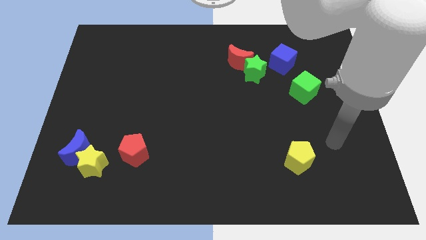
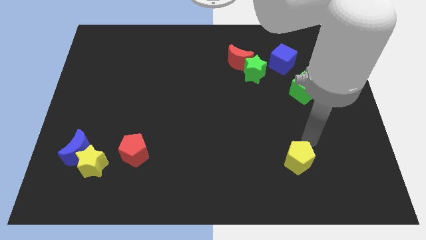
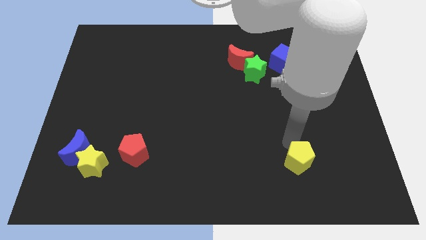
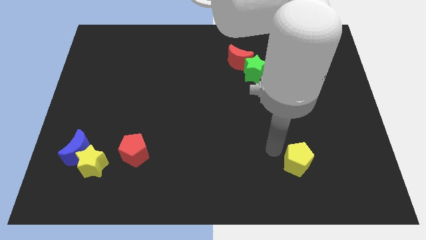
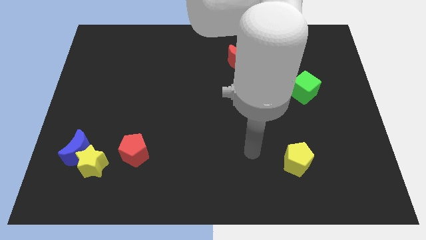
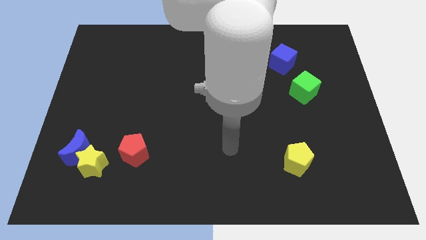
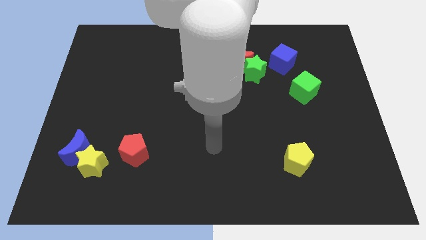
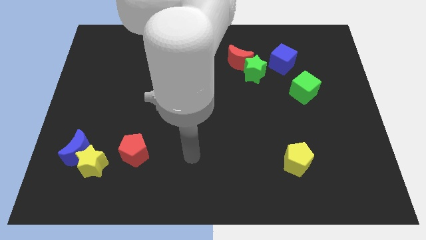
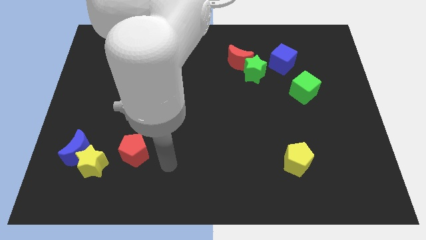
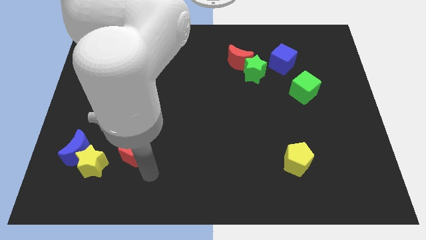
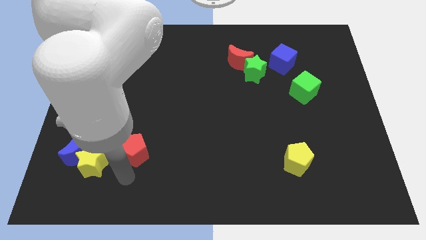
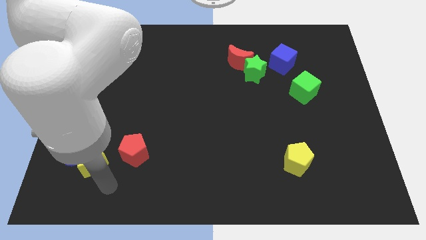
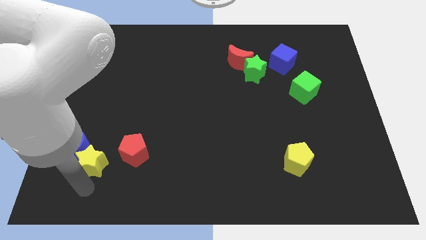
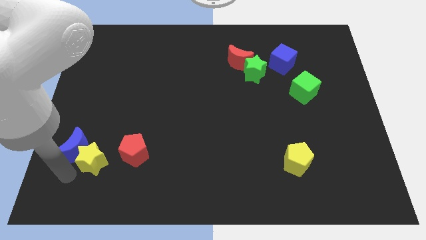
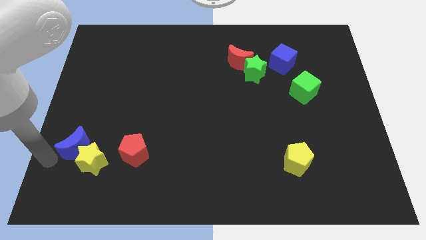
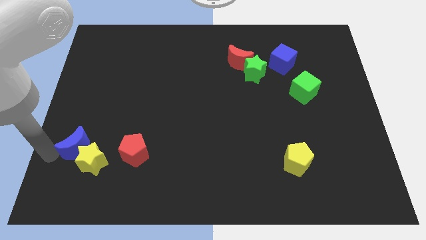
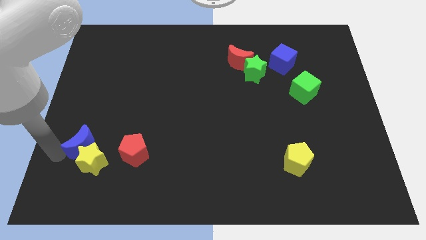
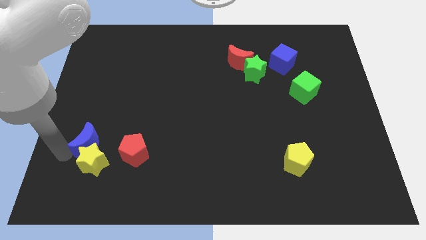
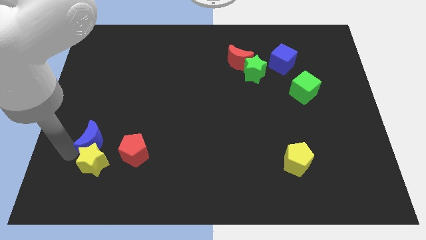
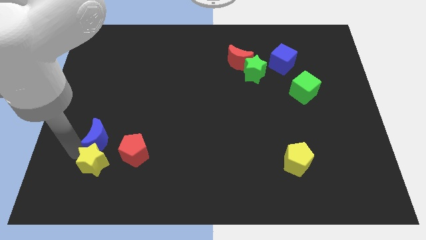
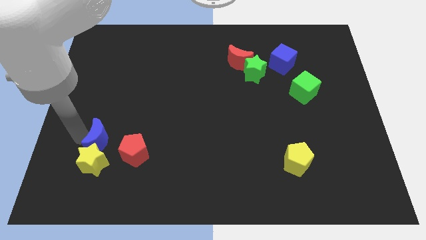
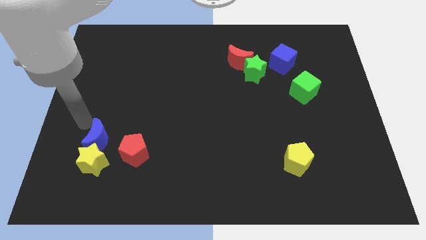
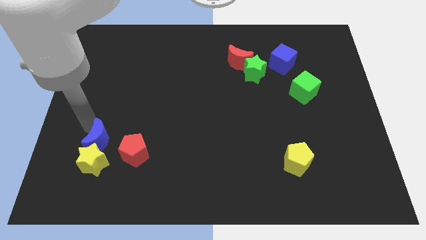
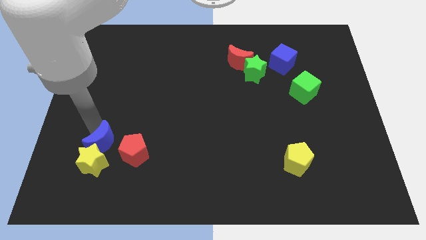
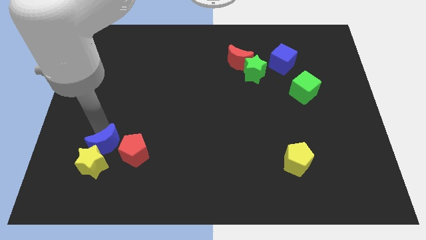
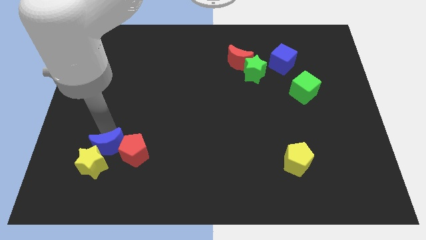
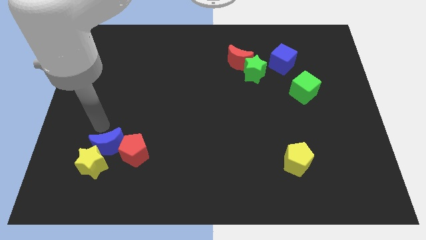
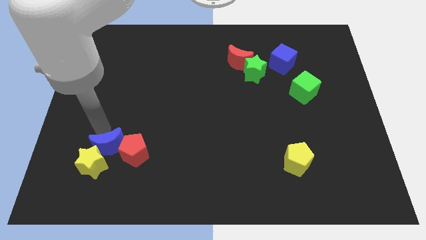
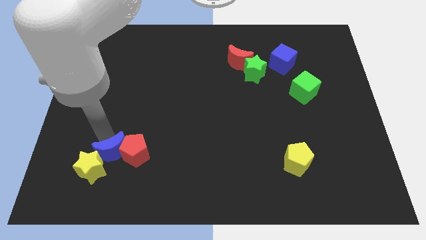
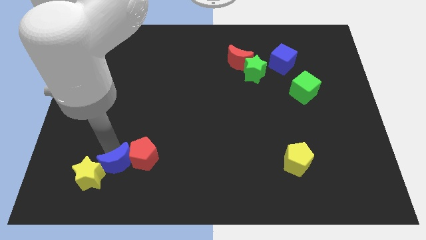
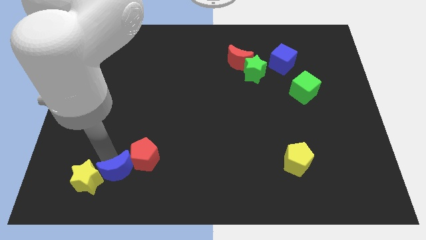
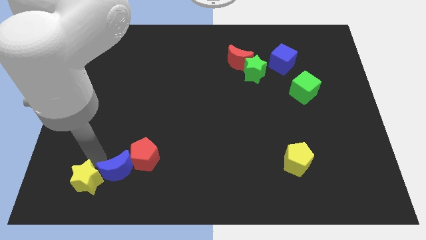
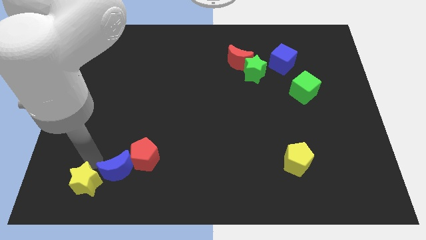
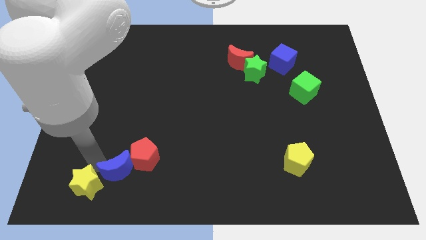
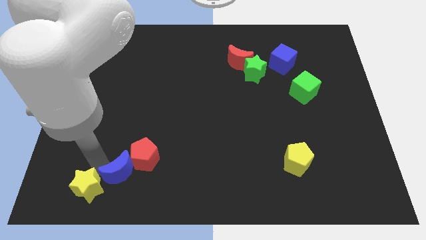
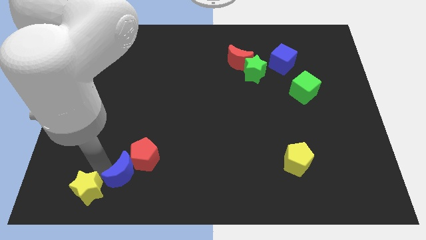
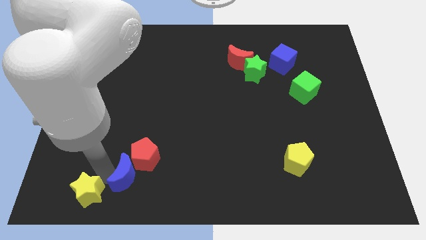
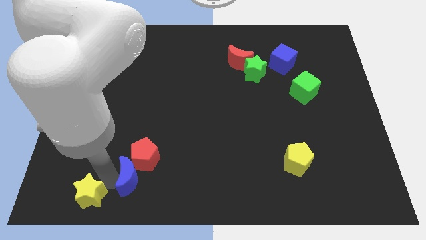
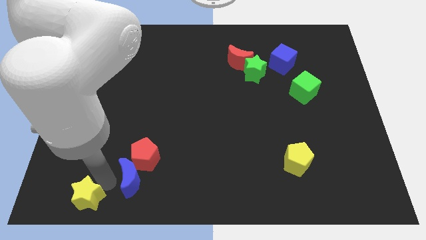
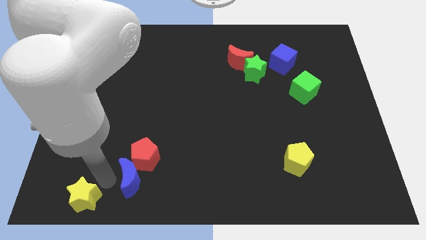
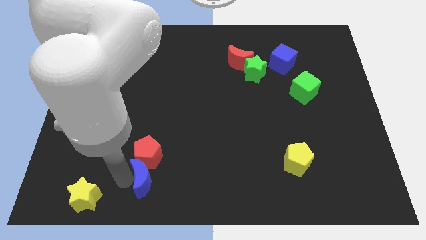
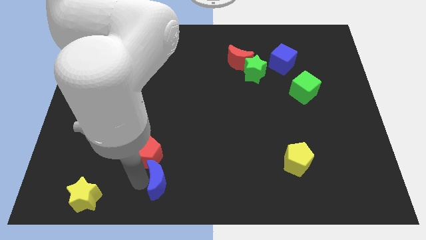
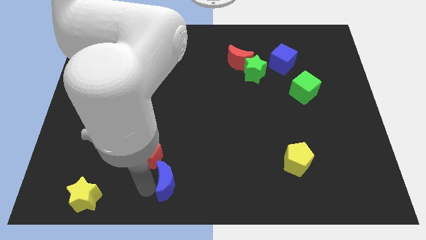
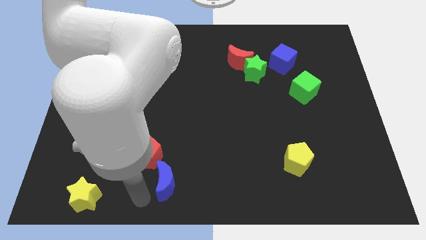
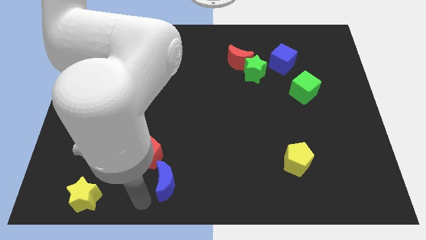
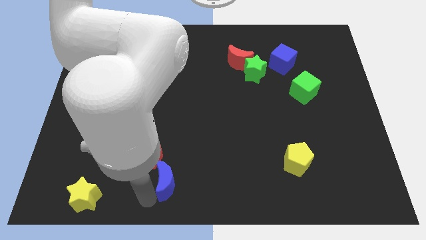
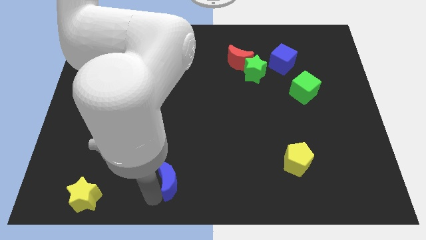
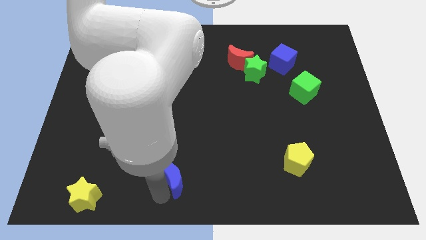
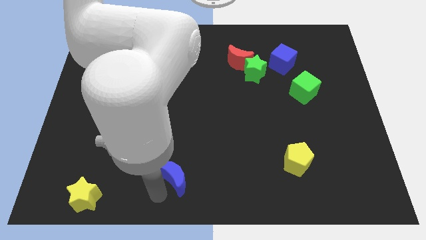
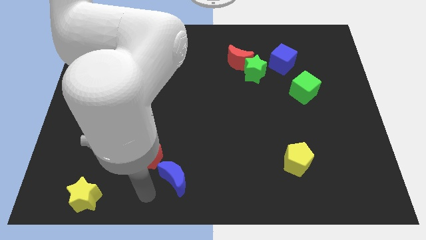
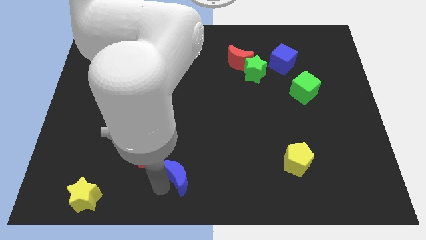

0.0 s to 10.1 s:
move the blue moon to the right

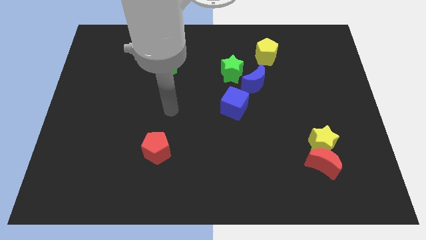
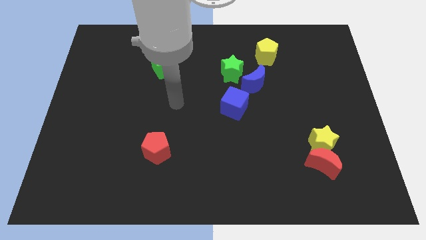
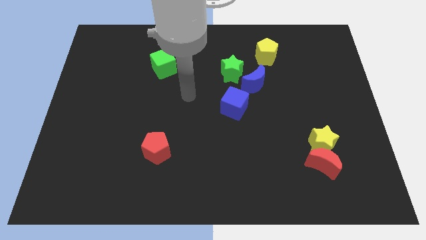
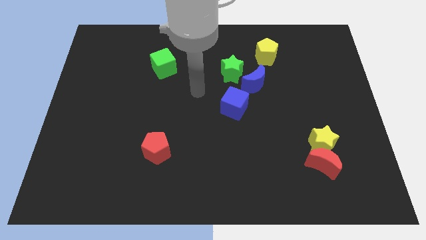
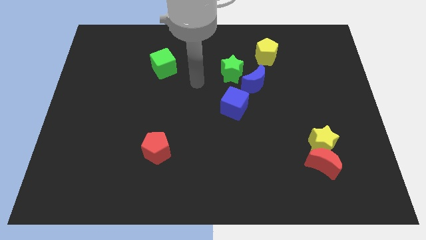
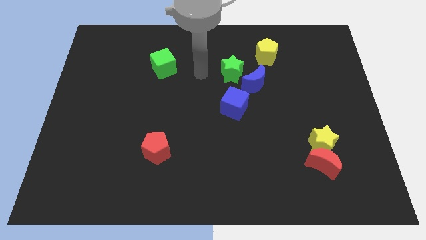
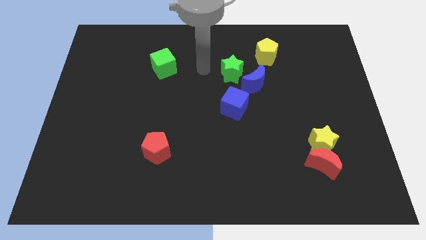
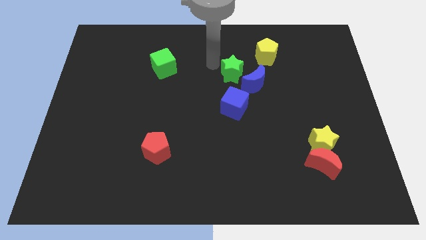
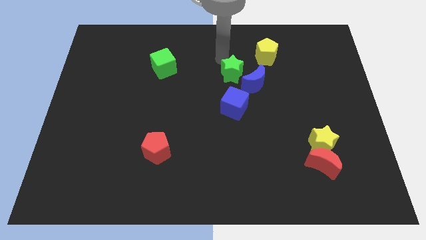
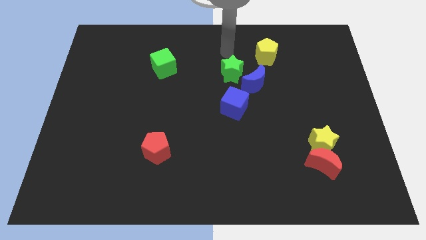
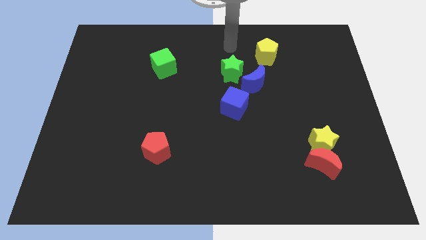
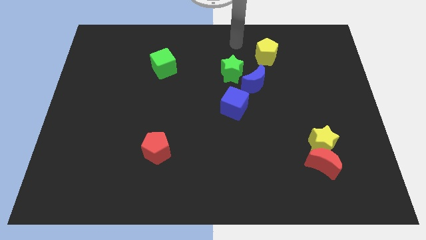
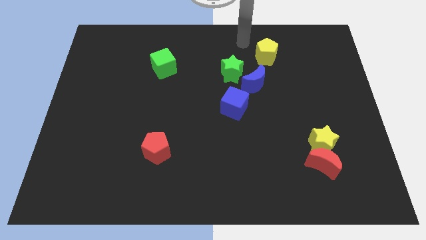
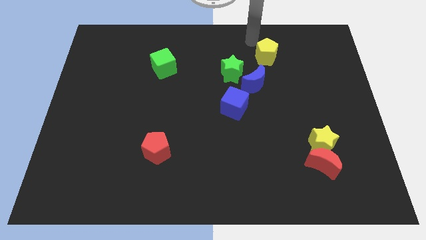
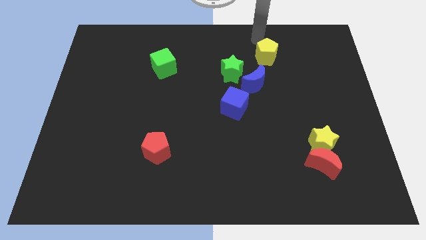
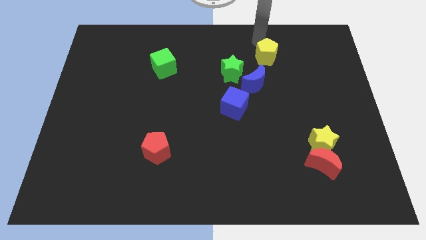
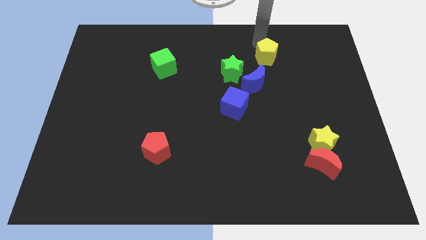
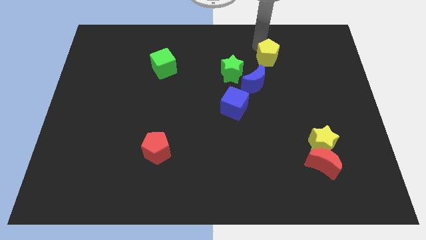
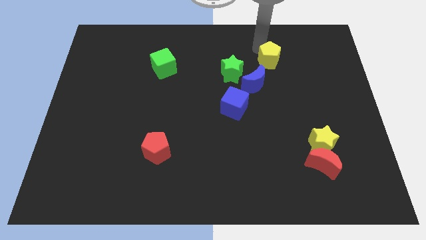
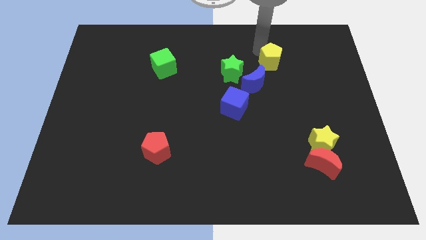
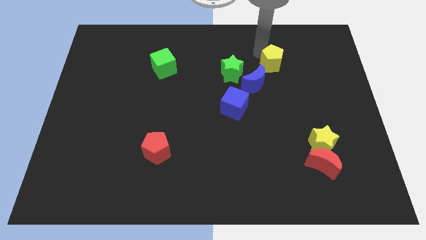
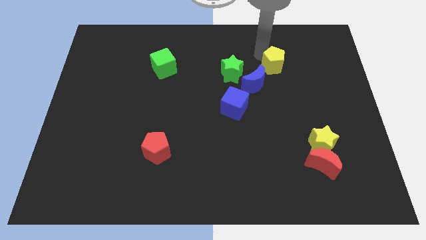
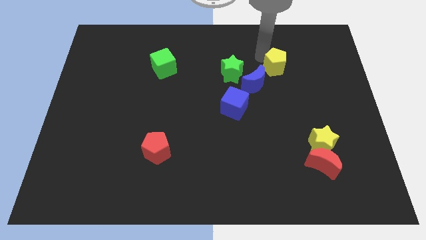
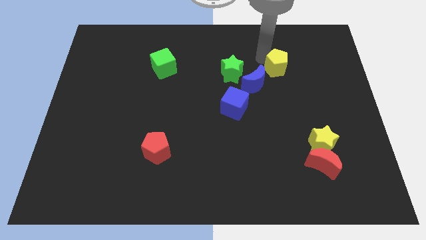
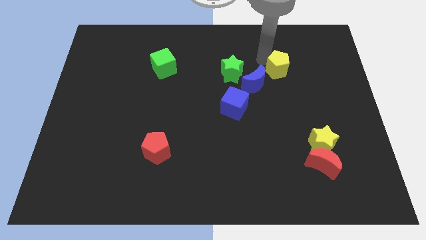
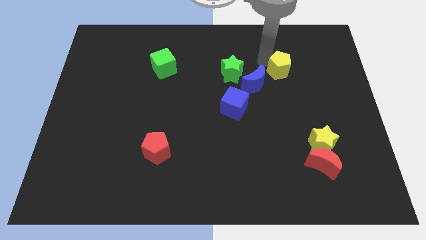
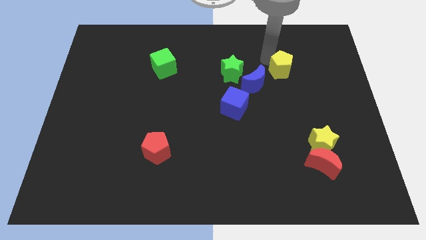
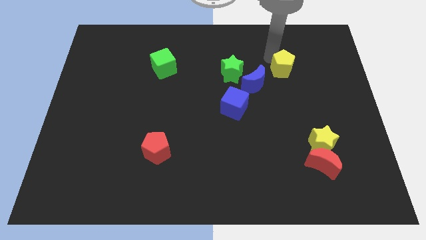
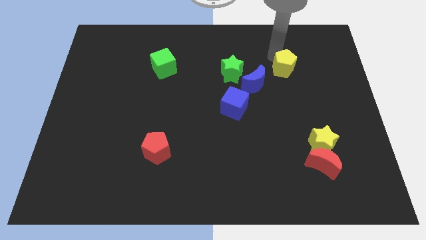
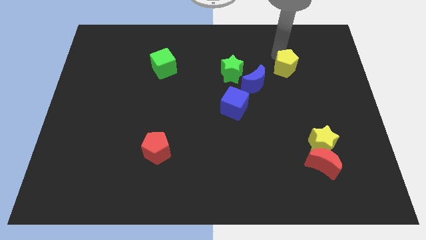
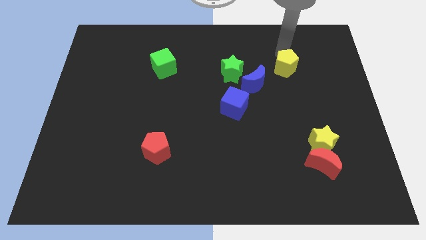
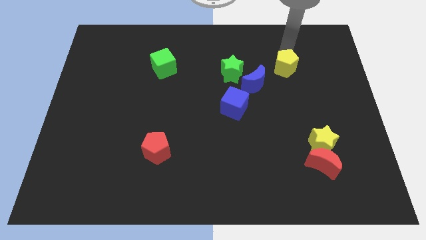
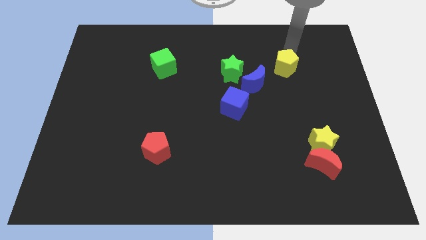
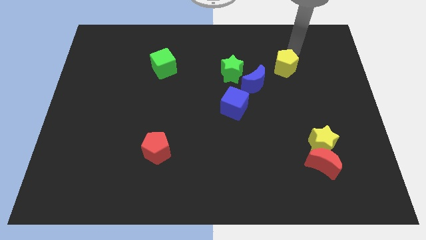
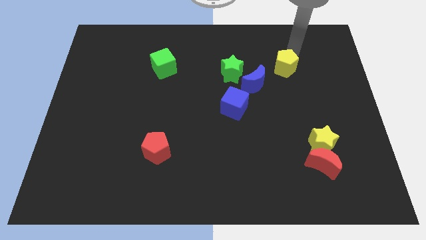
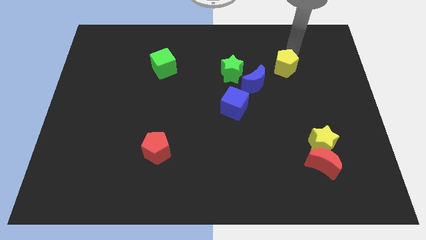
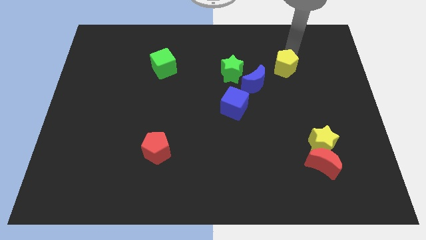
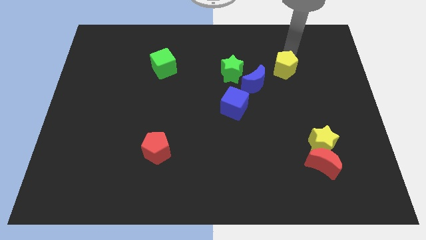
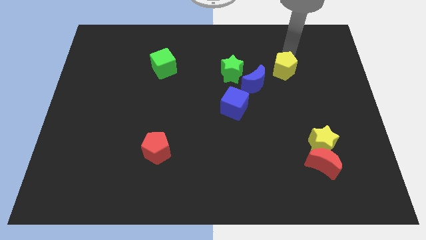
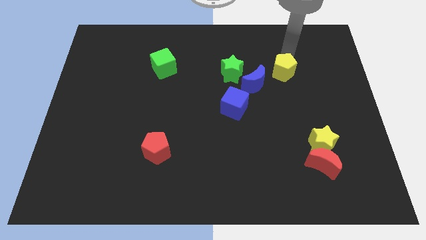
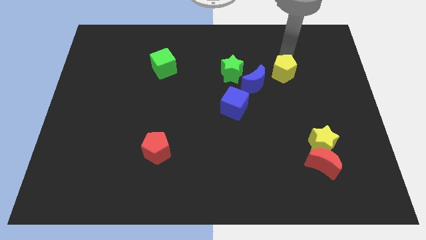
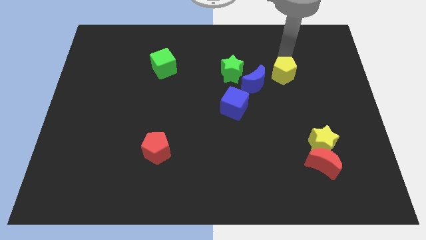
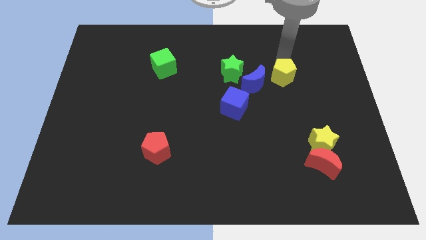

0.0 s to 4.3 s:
push the yellow pentagon down slightly
